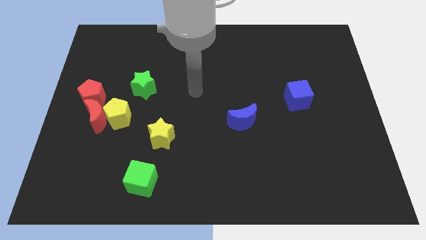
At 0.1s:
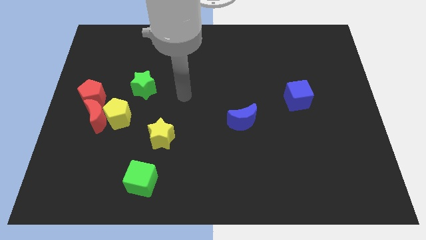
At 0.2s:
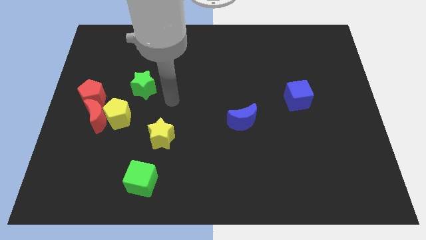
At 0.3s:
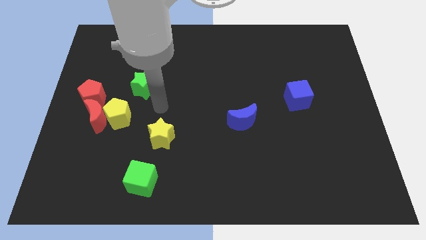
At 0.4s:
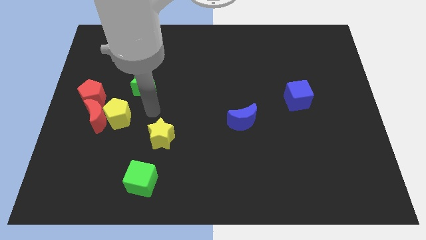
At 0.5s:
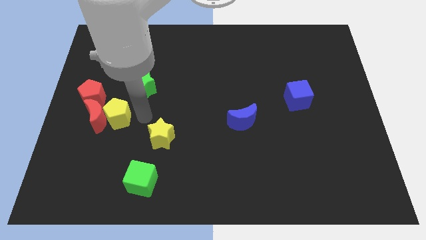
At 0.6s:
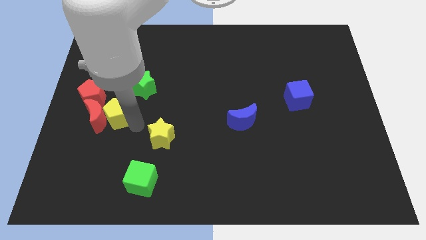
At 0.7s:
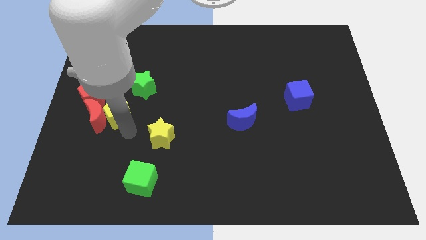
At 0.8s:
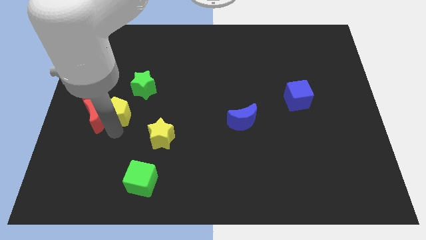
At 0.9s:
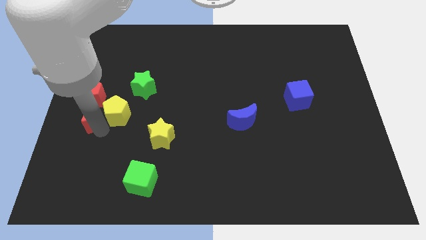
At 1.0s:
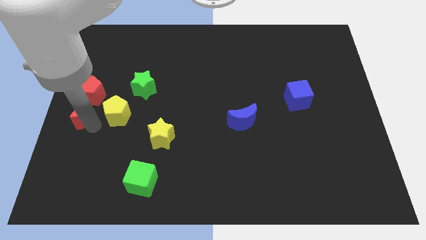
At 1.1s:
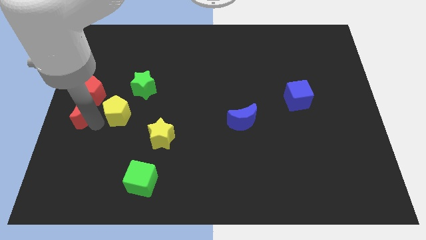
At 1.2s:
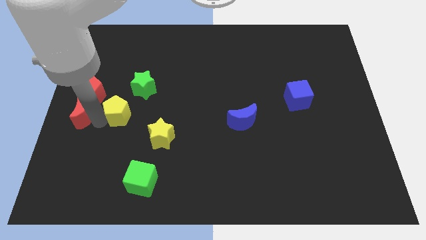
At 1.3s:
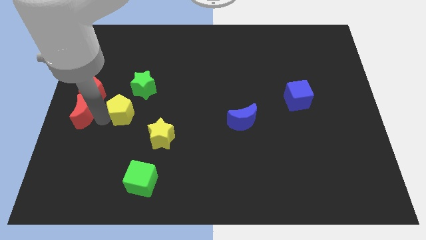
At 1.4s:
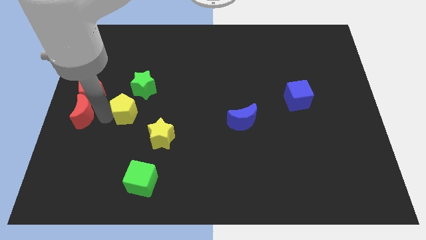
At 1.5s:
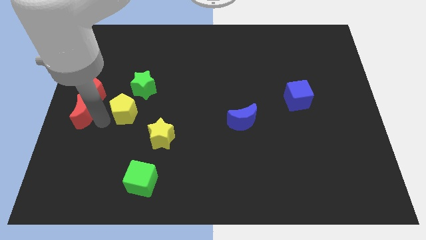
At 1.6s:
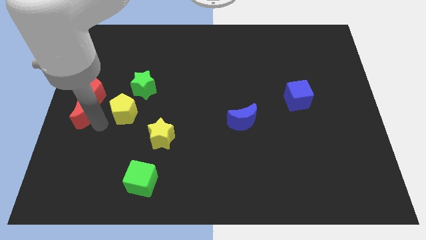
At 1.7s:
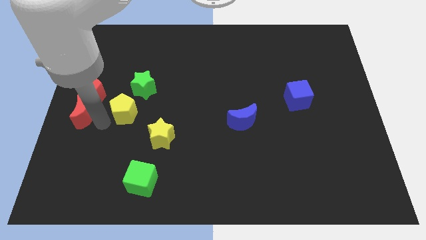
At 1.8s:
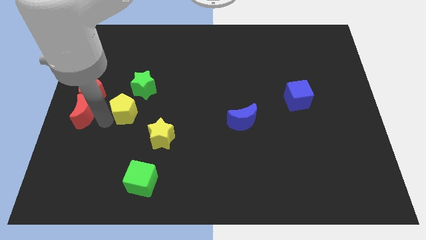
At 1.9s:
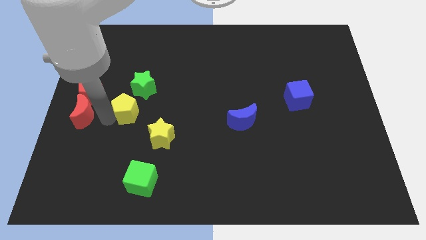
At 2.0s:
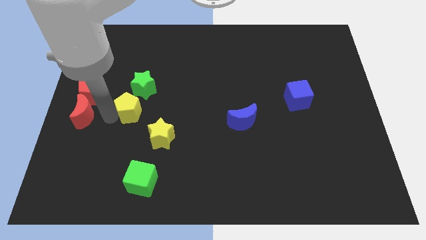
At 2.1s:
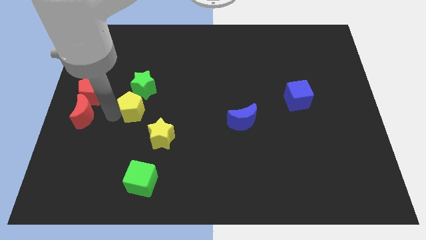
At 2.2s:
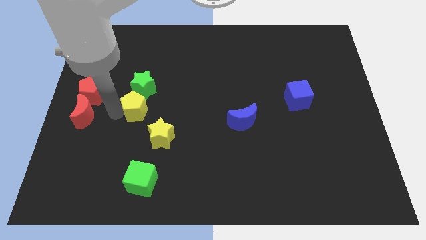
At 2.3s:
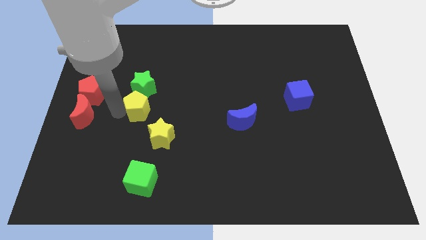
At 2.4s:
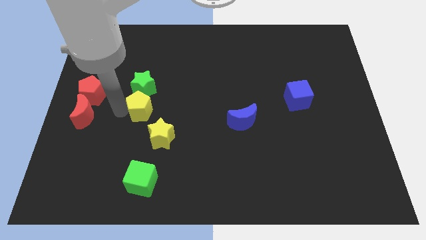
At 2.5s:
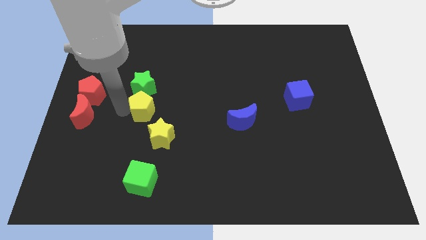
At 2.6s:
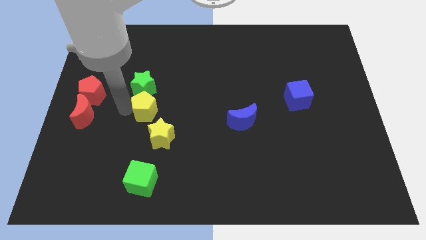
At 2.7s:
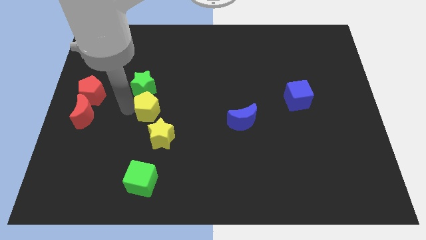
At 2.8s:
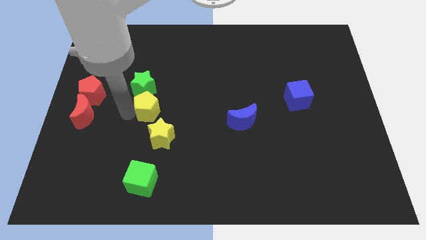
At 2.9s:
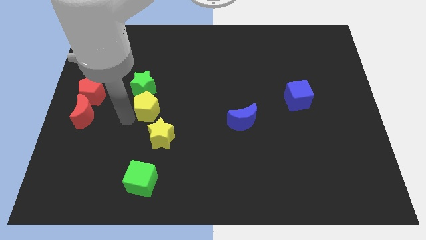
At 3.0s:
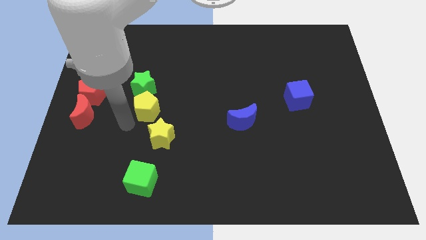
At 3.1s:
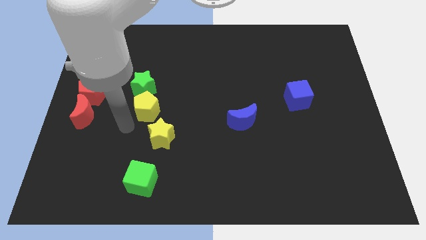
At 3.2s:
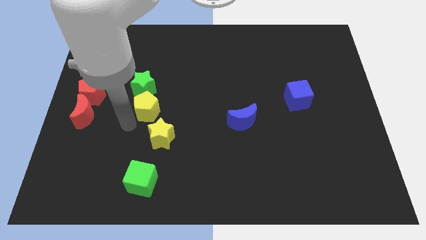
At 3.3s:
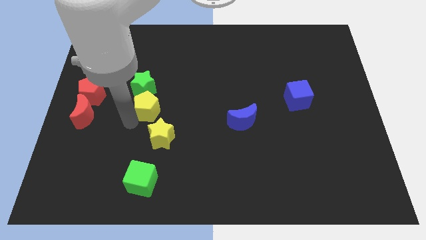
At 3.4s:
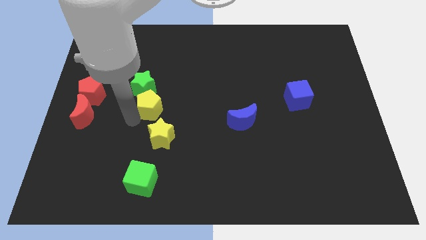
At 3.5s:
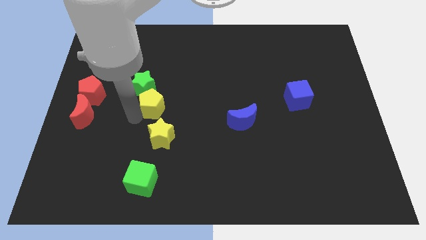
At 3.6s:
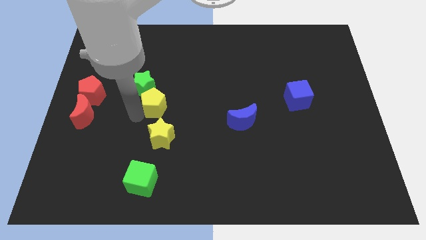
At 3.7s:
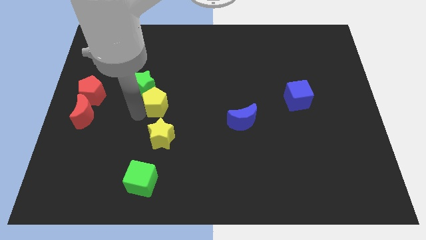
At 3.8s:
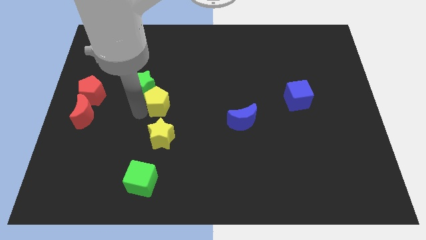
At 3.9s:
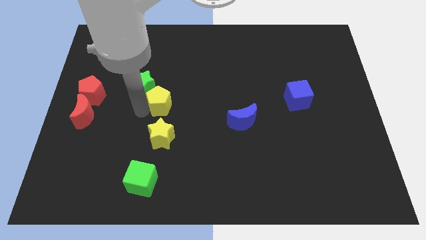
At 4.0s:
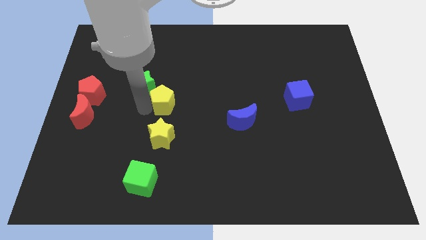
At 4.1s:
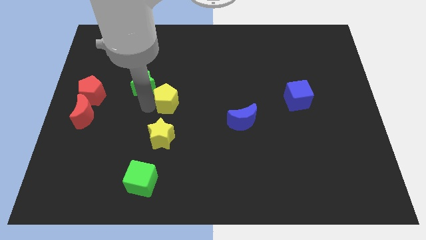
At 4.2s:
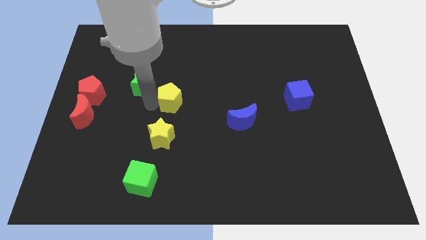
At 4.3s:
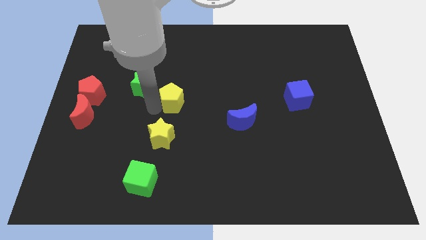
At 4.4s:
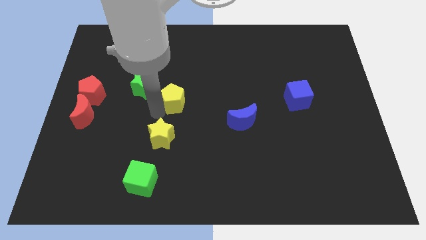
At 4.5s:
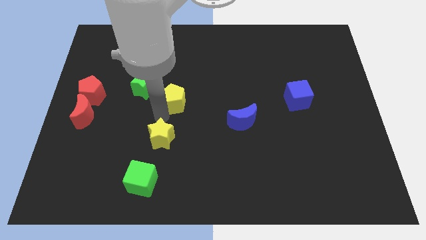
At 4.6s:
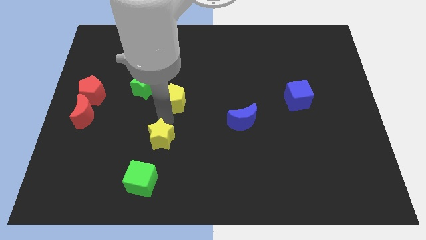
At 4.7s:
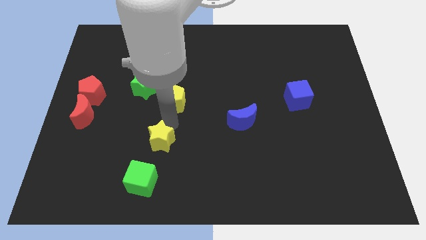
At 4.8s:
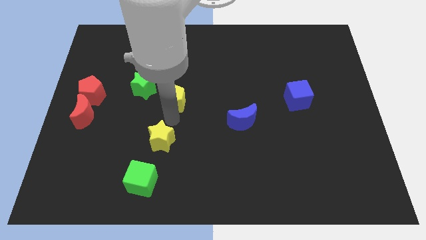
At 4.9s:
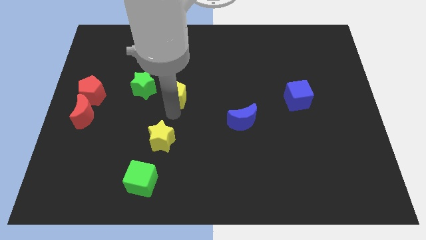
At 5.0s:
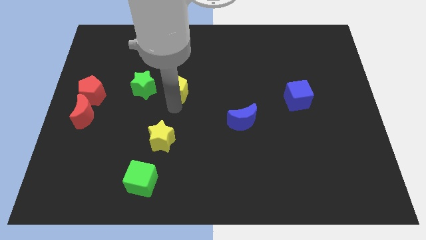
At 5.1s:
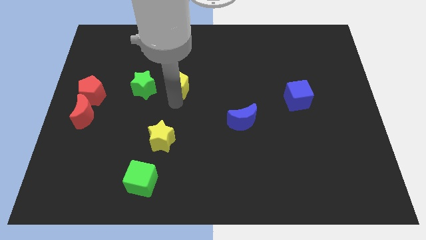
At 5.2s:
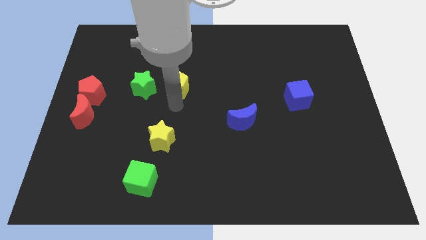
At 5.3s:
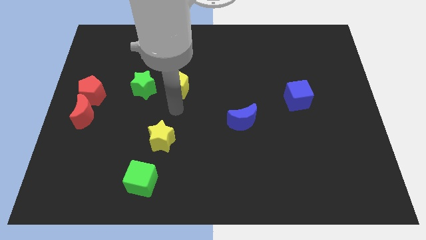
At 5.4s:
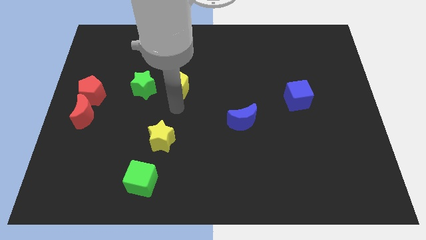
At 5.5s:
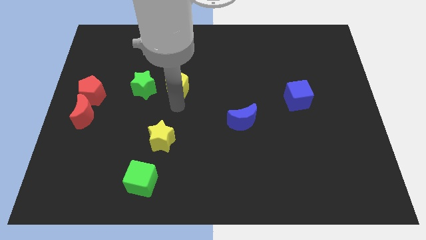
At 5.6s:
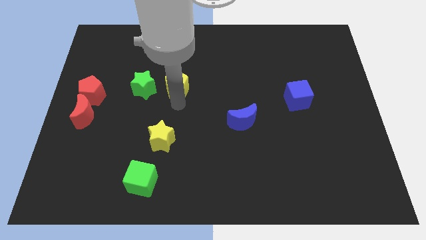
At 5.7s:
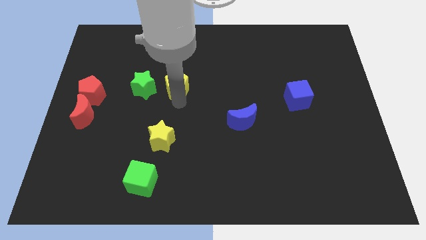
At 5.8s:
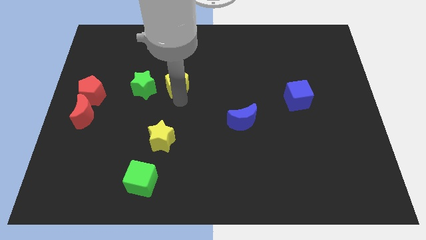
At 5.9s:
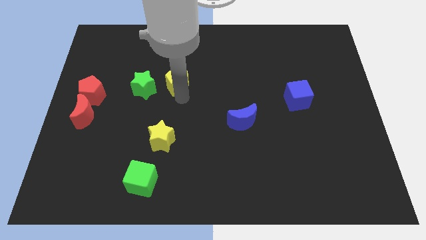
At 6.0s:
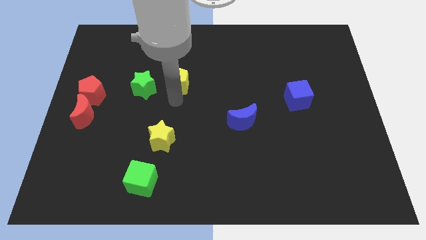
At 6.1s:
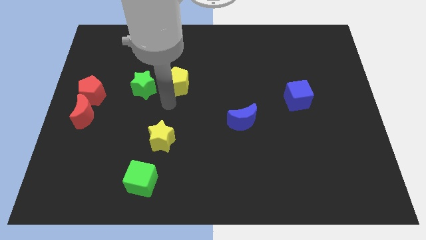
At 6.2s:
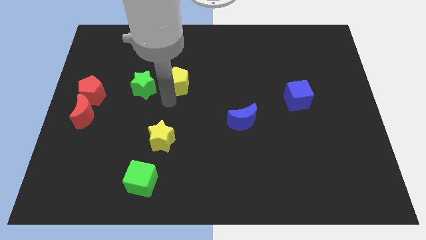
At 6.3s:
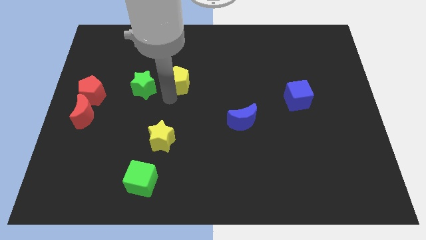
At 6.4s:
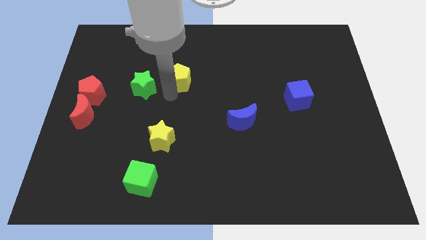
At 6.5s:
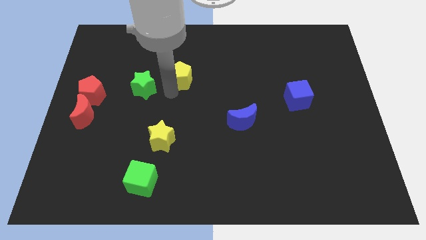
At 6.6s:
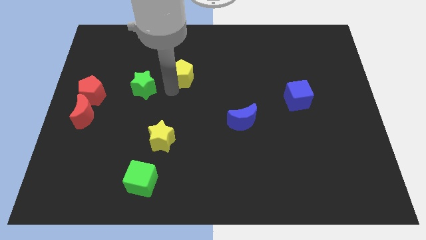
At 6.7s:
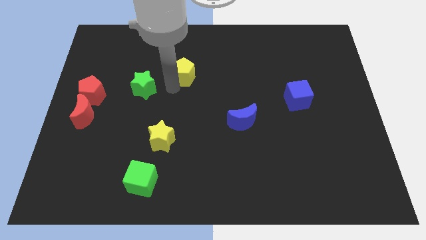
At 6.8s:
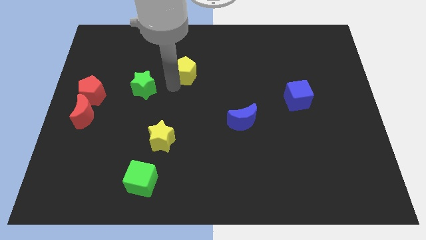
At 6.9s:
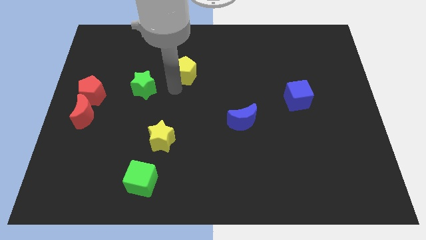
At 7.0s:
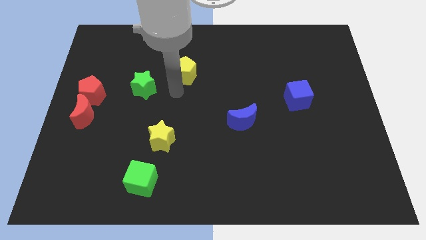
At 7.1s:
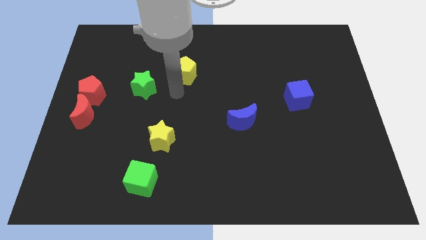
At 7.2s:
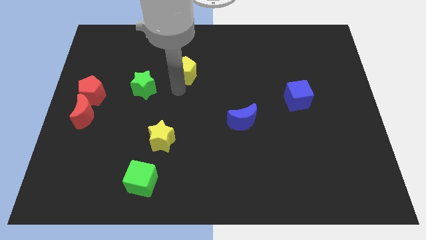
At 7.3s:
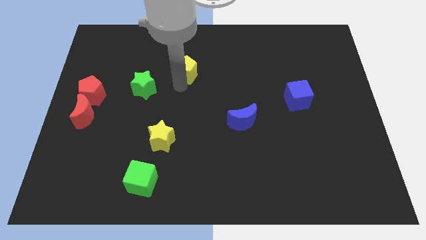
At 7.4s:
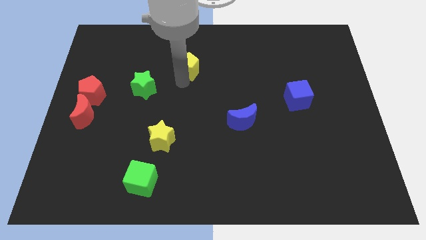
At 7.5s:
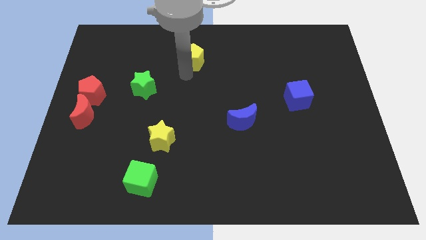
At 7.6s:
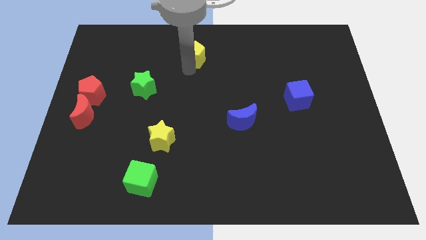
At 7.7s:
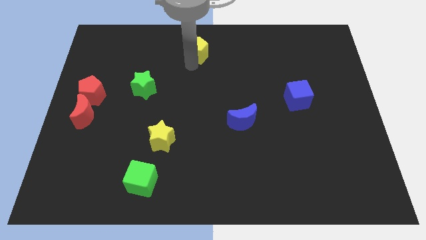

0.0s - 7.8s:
put the yellow pentagon to the top
